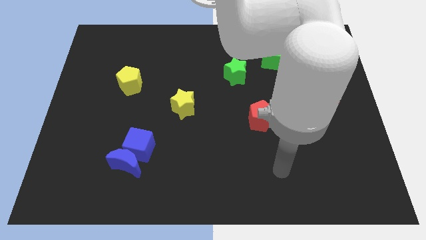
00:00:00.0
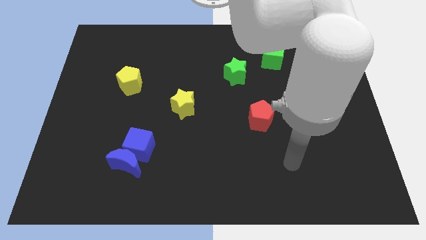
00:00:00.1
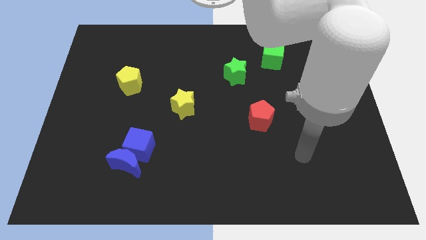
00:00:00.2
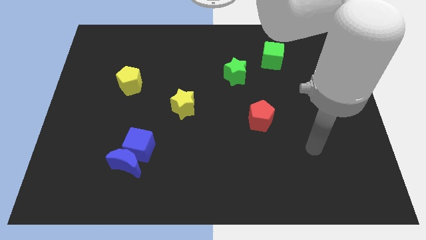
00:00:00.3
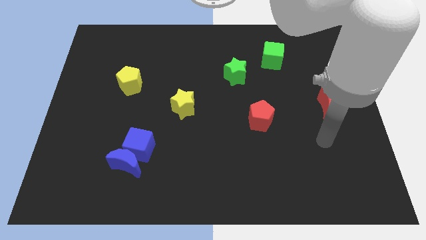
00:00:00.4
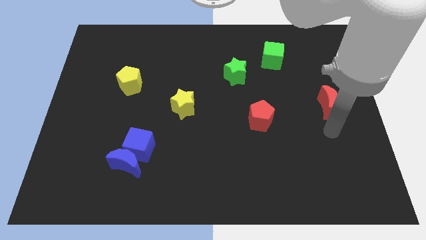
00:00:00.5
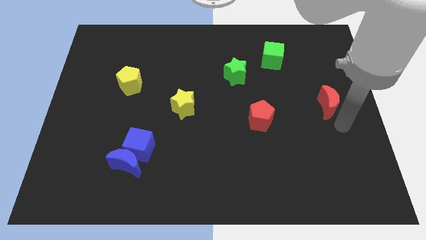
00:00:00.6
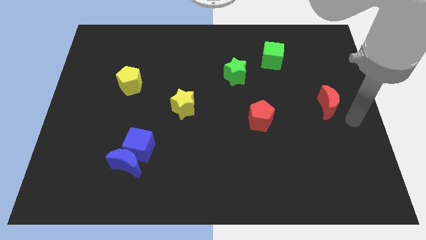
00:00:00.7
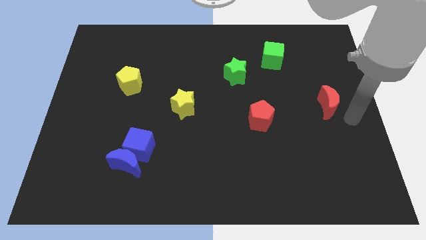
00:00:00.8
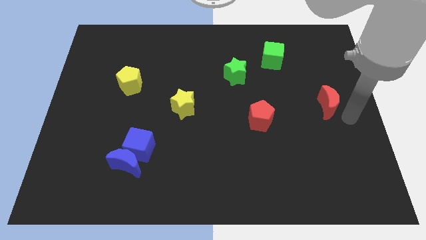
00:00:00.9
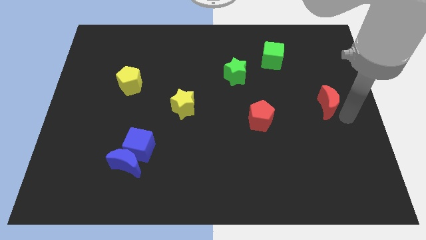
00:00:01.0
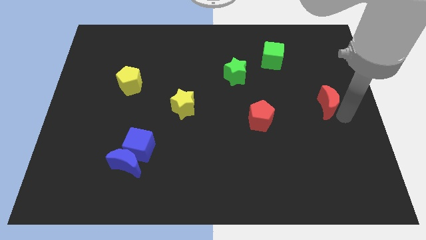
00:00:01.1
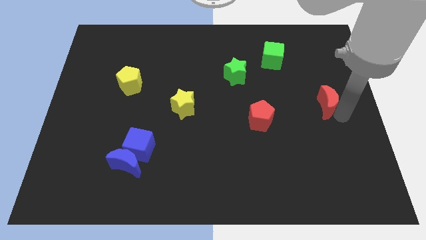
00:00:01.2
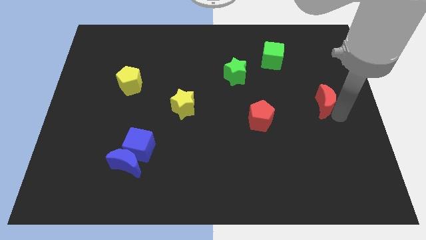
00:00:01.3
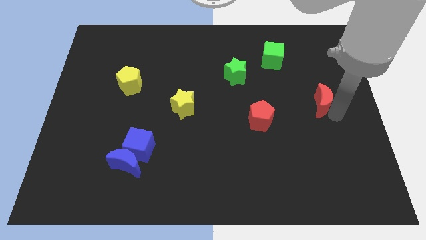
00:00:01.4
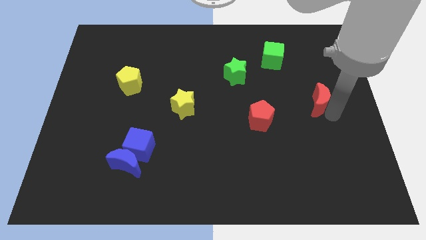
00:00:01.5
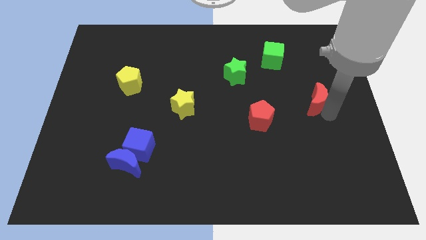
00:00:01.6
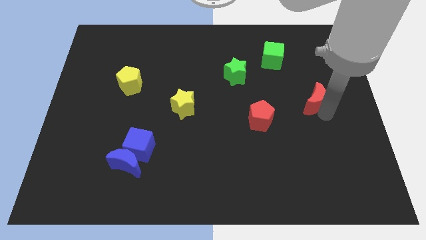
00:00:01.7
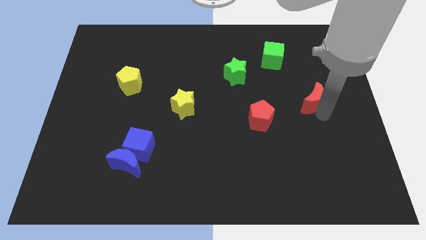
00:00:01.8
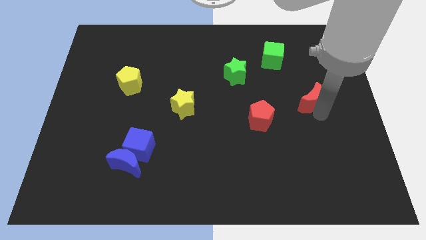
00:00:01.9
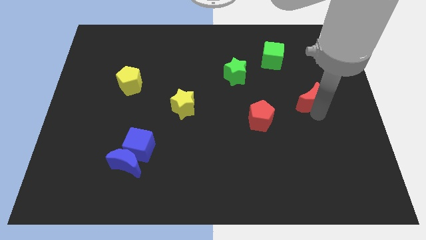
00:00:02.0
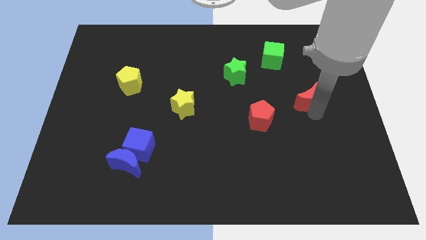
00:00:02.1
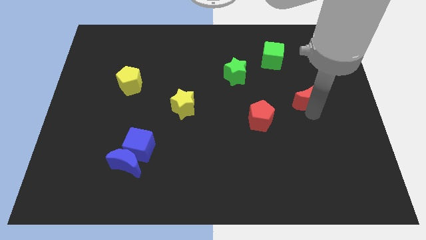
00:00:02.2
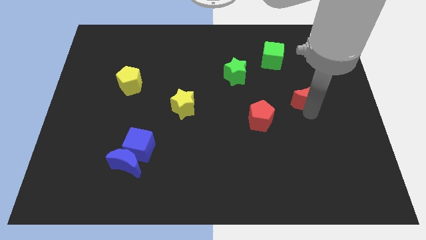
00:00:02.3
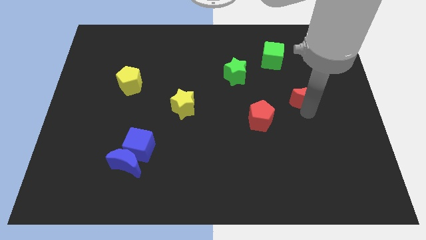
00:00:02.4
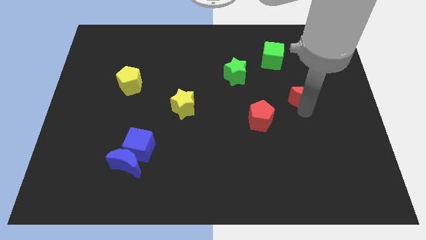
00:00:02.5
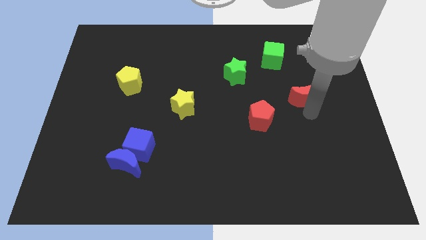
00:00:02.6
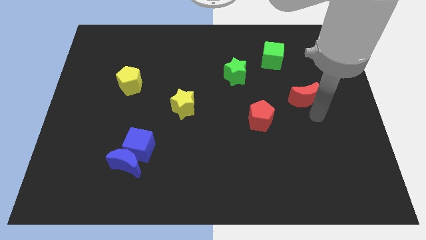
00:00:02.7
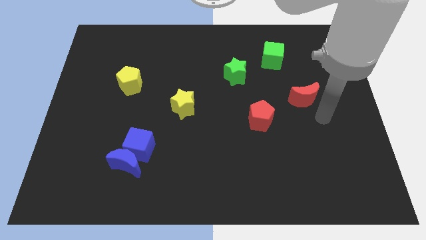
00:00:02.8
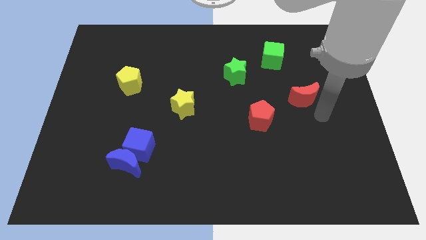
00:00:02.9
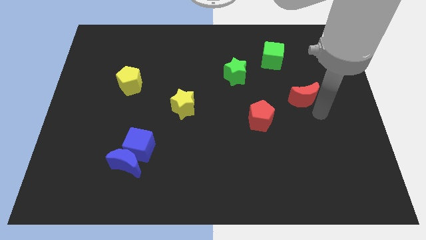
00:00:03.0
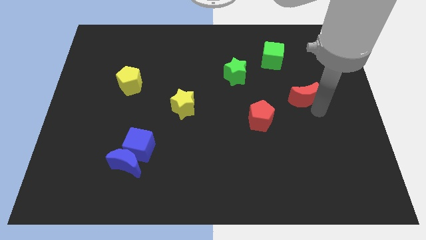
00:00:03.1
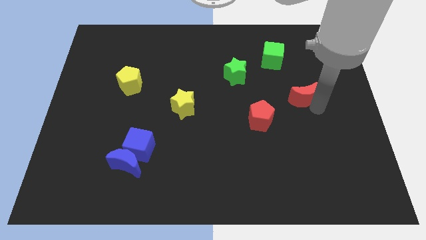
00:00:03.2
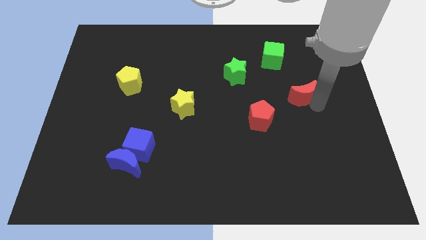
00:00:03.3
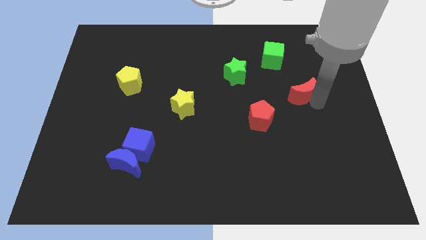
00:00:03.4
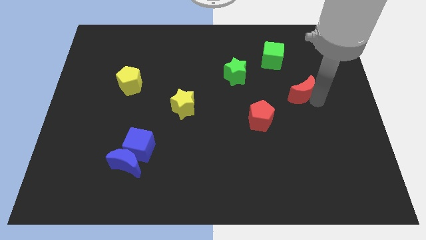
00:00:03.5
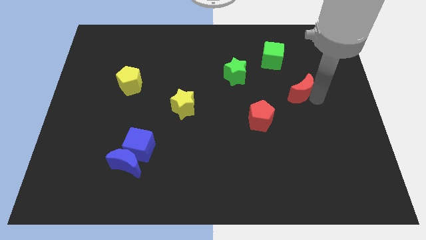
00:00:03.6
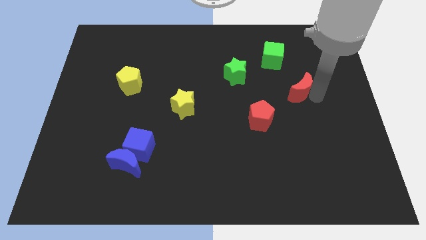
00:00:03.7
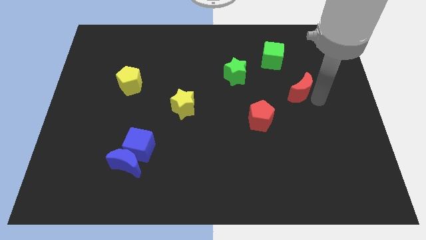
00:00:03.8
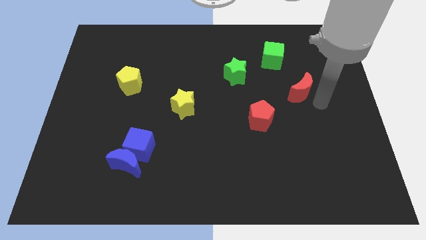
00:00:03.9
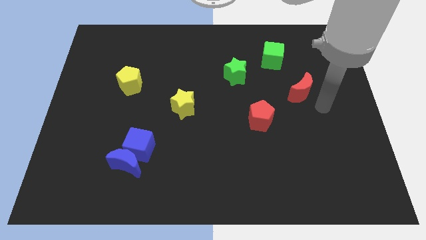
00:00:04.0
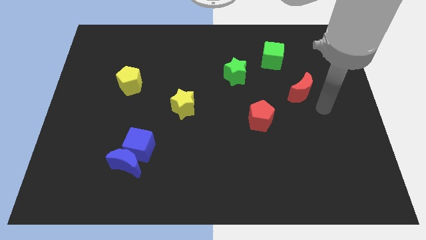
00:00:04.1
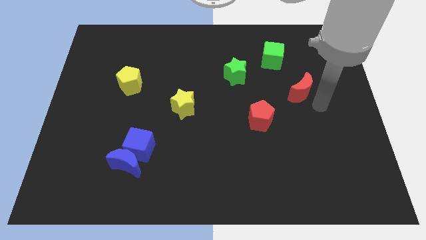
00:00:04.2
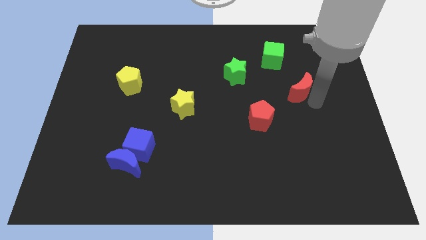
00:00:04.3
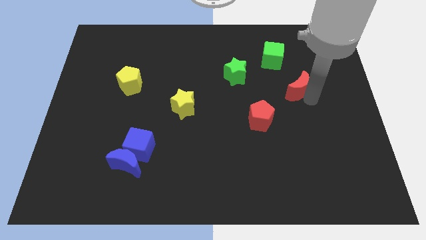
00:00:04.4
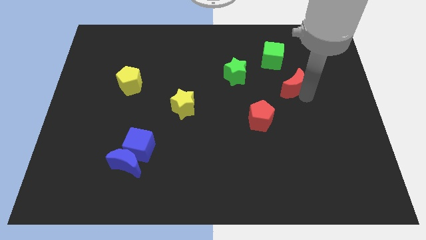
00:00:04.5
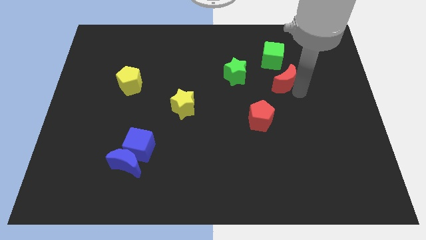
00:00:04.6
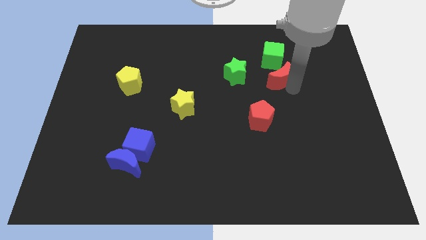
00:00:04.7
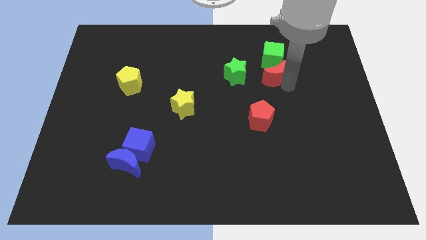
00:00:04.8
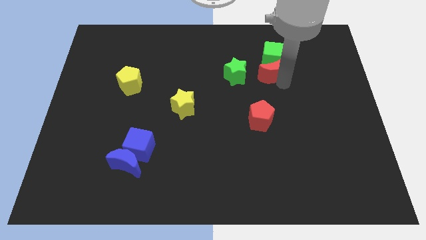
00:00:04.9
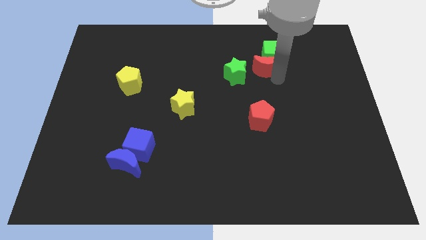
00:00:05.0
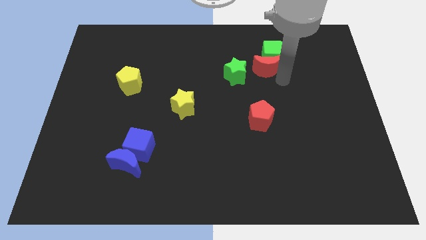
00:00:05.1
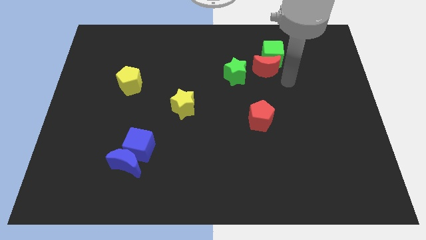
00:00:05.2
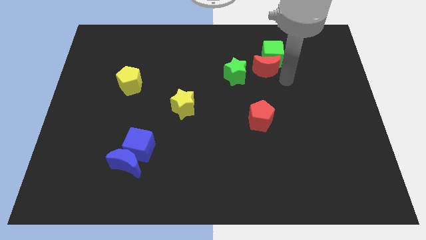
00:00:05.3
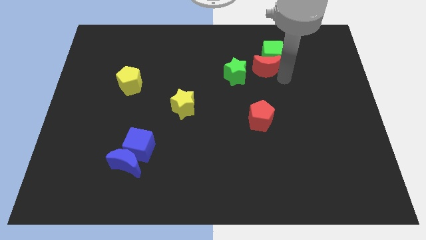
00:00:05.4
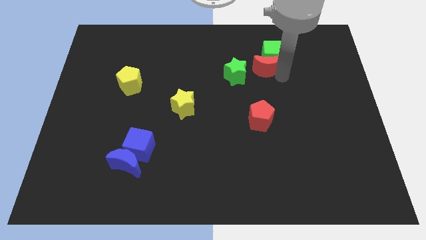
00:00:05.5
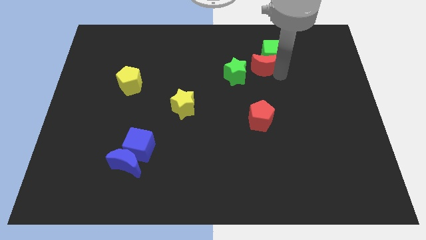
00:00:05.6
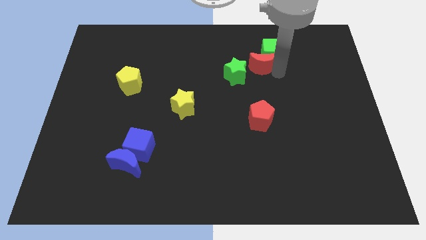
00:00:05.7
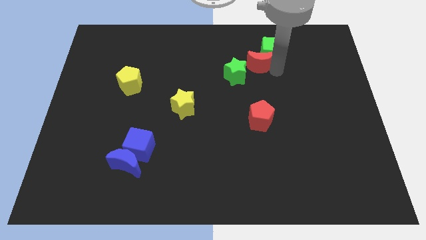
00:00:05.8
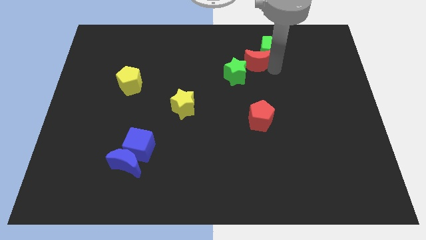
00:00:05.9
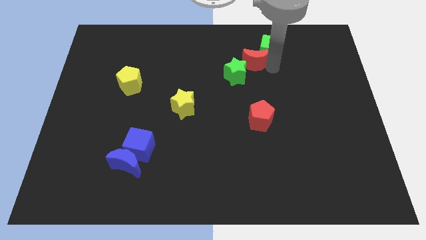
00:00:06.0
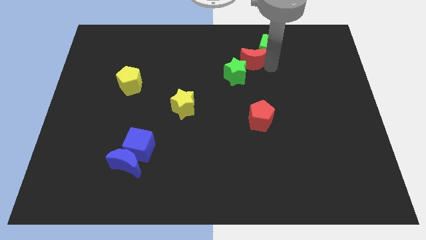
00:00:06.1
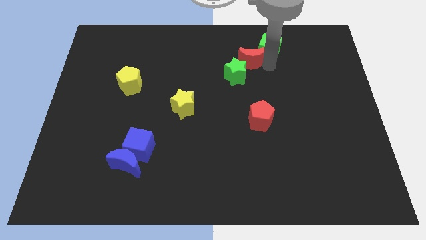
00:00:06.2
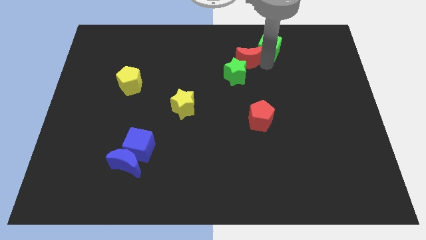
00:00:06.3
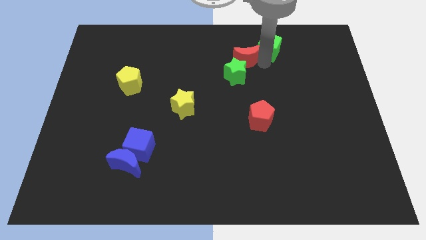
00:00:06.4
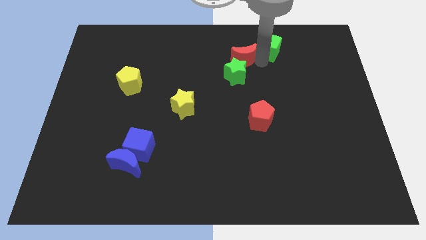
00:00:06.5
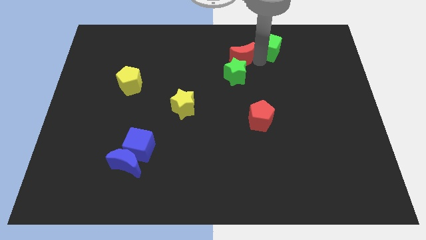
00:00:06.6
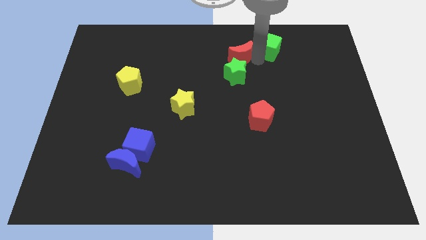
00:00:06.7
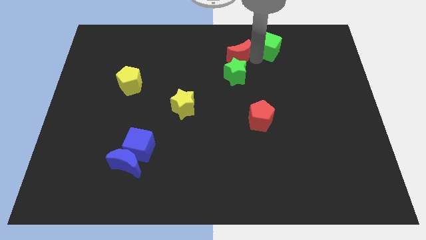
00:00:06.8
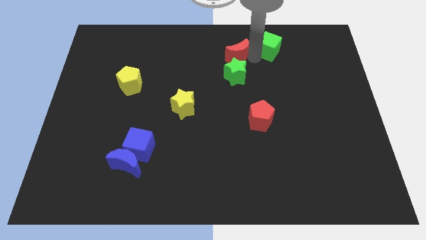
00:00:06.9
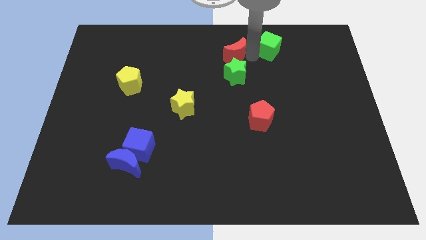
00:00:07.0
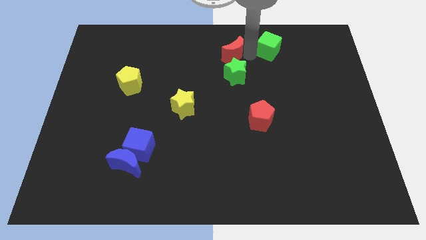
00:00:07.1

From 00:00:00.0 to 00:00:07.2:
push the red moon to the top
